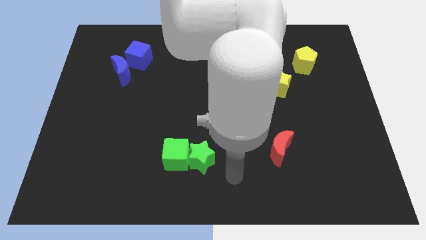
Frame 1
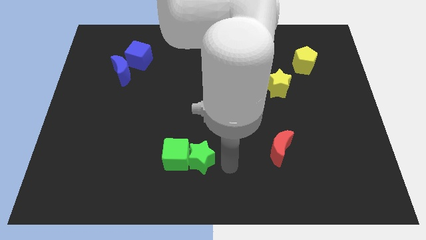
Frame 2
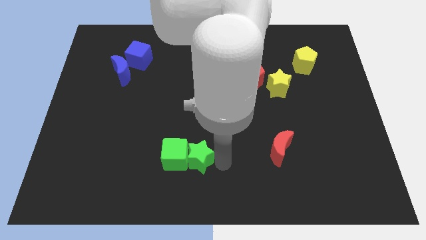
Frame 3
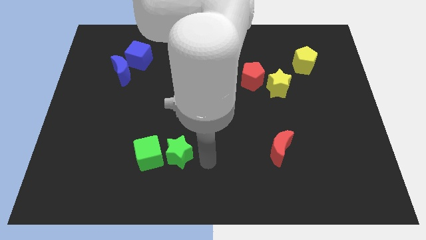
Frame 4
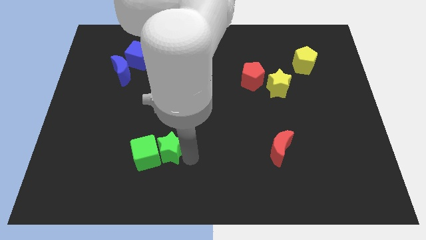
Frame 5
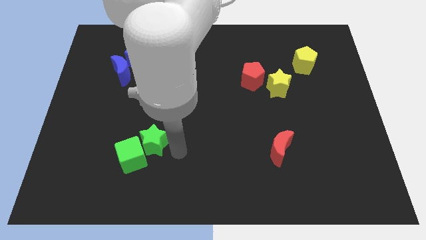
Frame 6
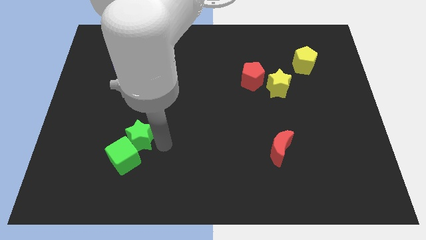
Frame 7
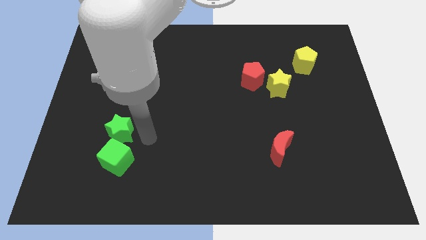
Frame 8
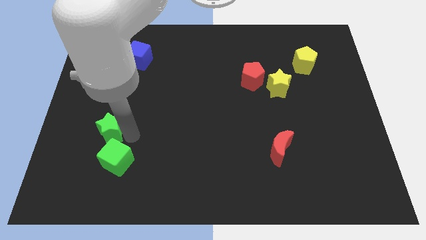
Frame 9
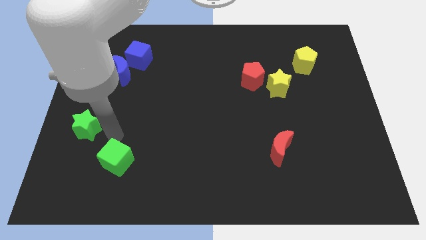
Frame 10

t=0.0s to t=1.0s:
move the green cube away from the green star

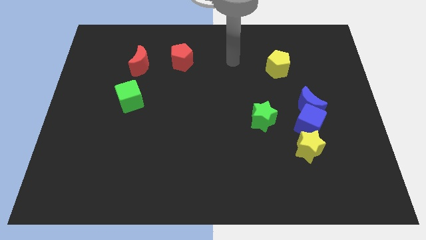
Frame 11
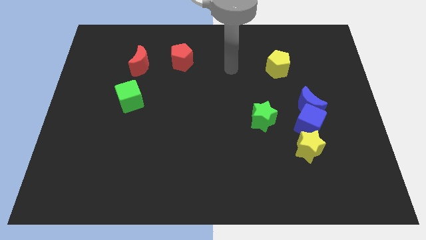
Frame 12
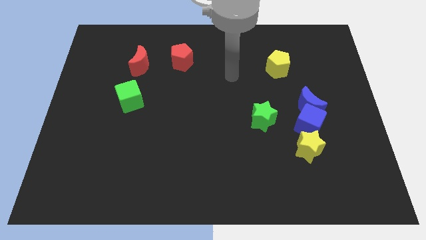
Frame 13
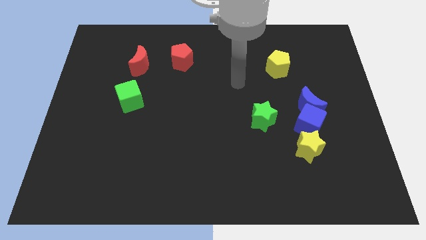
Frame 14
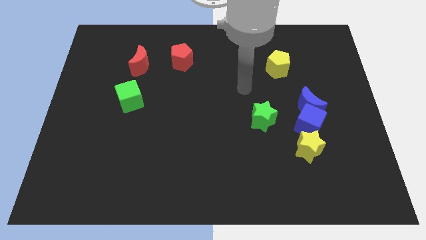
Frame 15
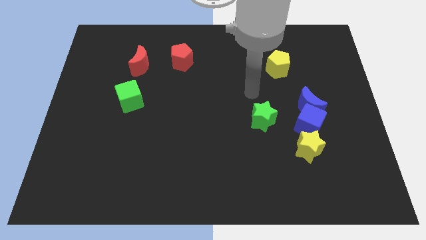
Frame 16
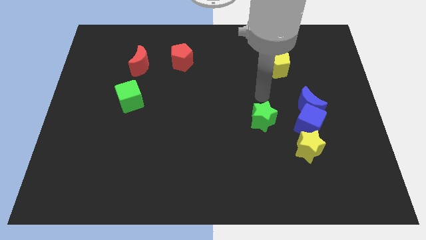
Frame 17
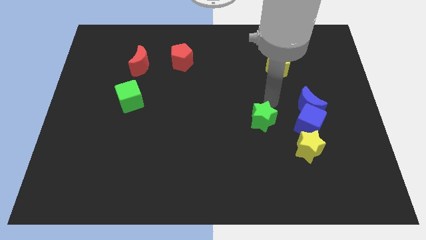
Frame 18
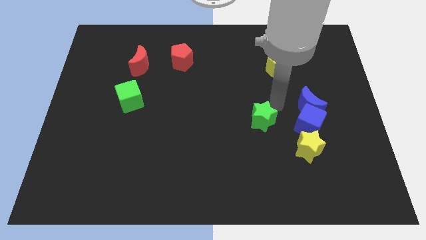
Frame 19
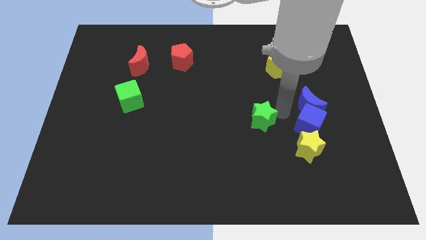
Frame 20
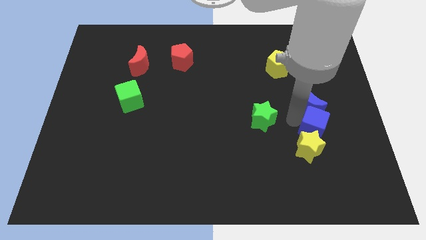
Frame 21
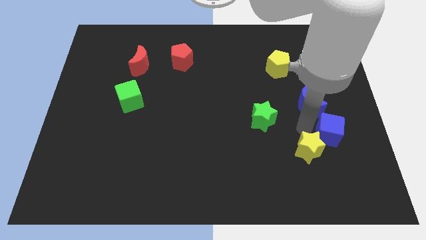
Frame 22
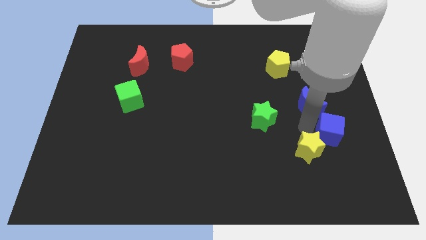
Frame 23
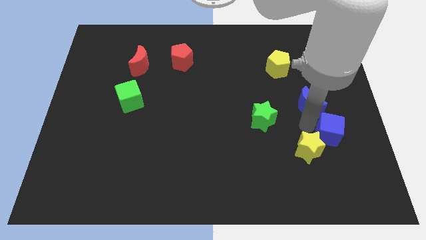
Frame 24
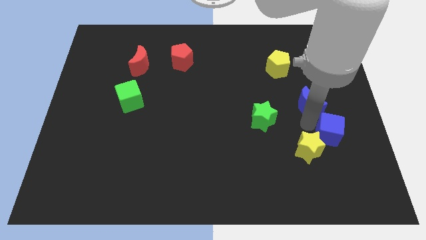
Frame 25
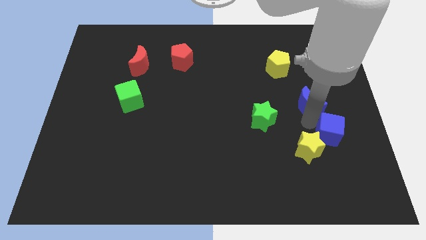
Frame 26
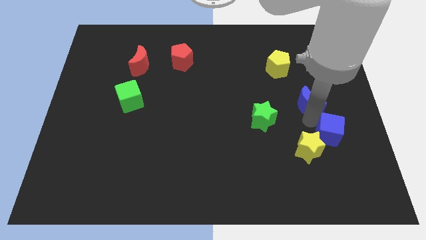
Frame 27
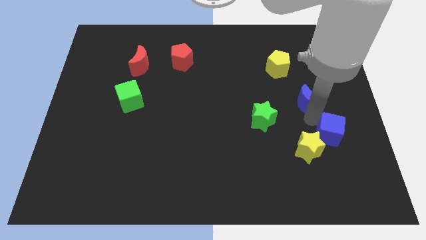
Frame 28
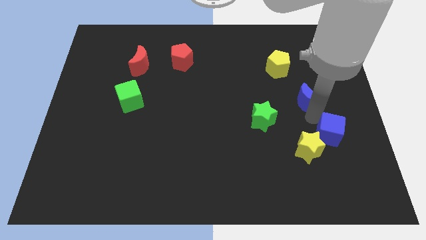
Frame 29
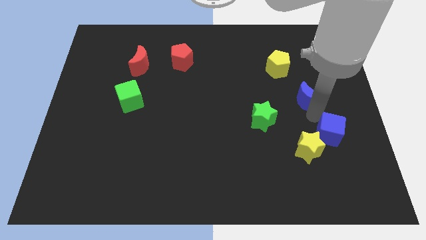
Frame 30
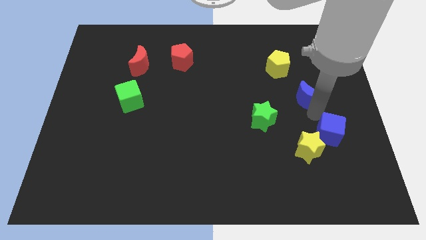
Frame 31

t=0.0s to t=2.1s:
pull the blue moon apart from the blue cube

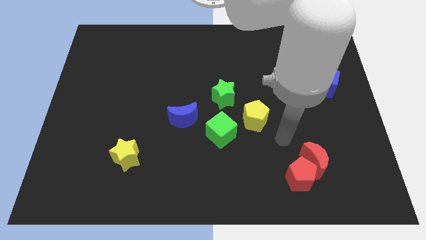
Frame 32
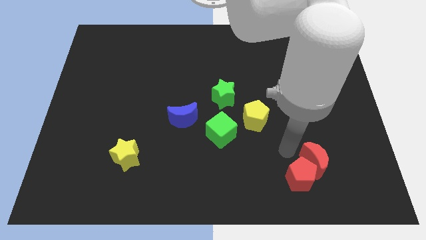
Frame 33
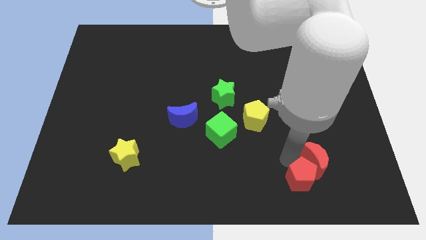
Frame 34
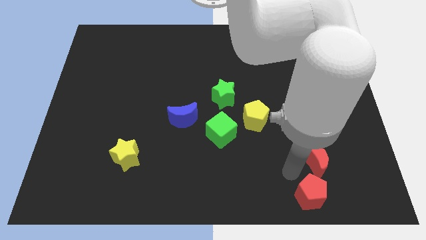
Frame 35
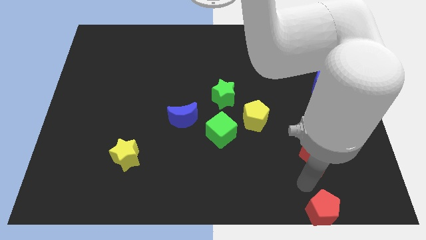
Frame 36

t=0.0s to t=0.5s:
separate the red moon from the red pentagon

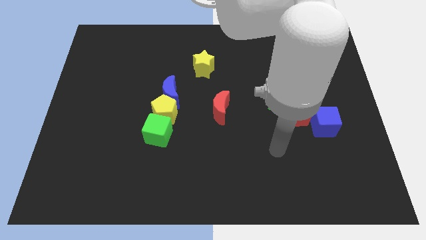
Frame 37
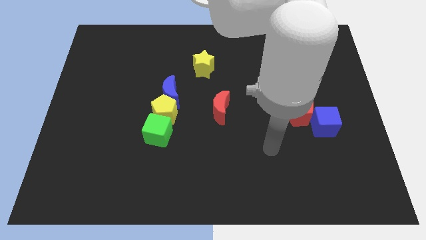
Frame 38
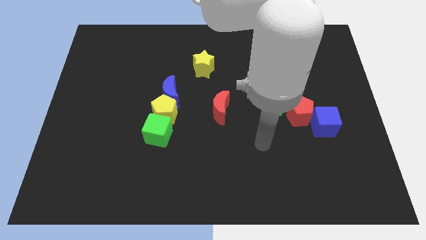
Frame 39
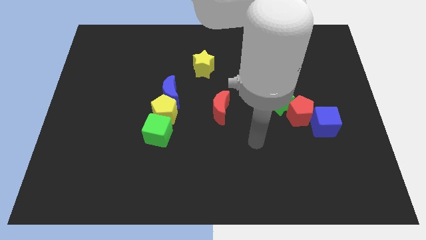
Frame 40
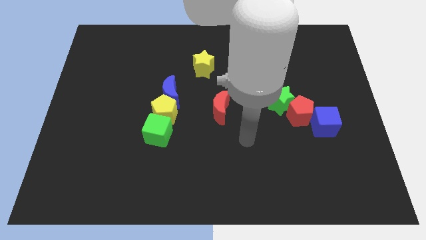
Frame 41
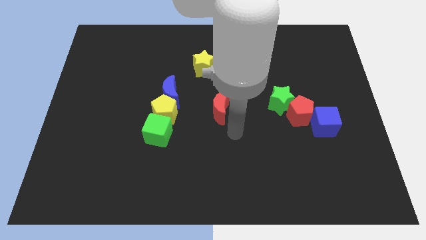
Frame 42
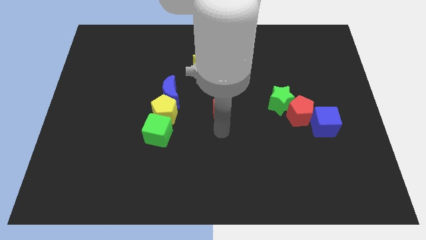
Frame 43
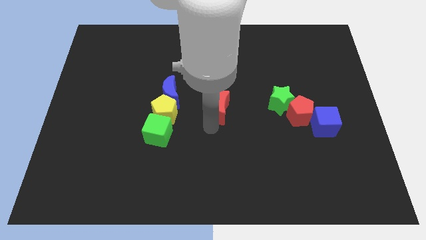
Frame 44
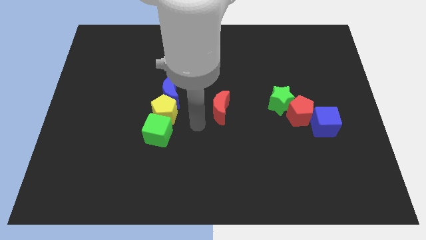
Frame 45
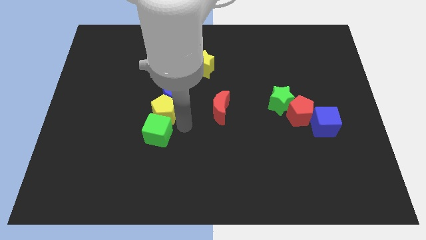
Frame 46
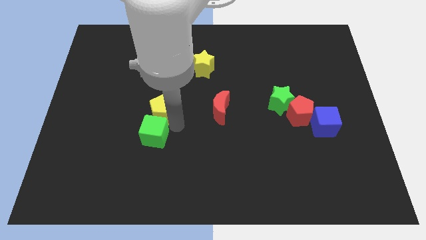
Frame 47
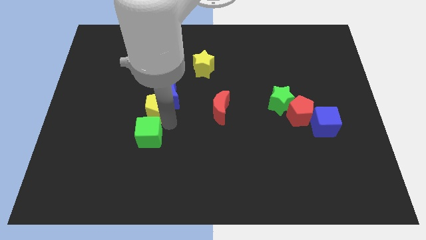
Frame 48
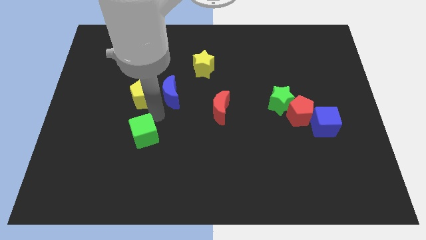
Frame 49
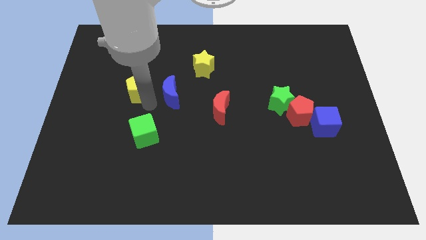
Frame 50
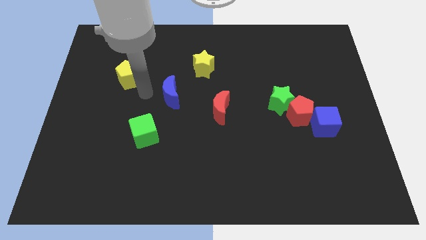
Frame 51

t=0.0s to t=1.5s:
pull the blue moon apart from the yellow pentagon

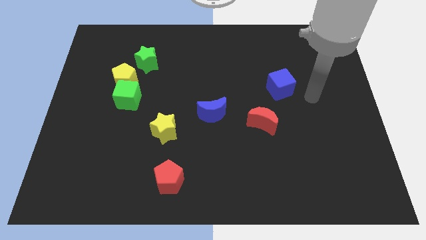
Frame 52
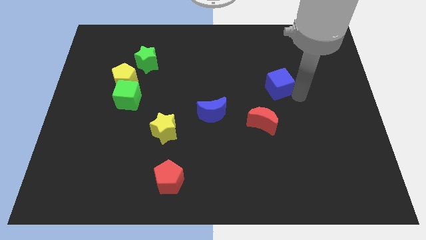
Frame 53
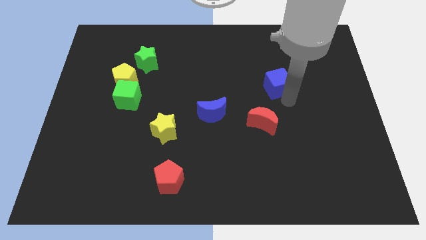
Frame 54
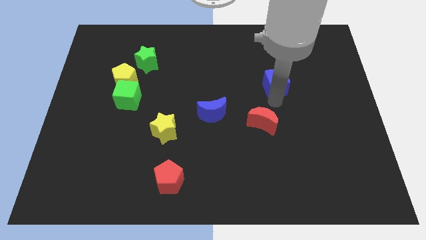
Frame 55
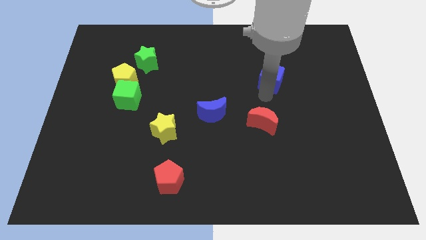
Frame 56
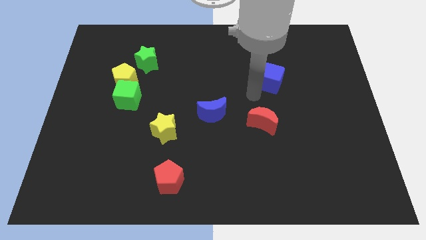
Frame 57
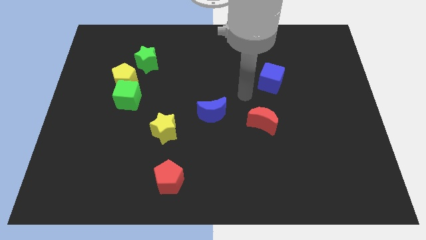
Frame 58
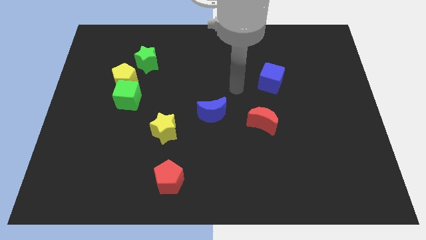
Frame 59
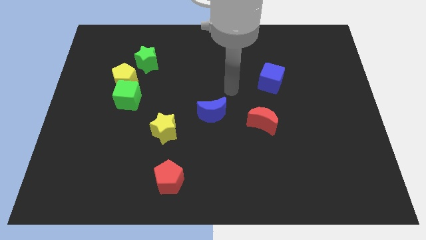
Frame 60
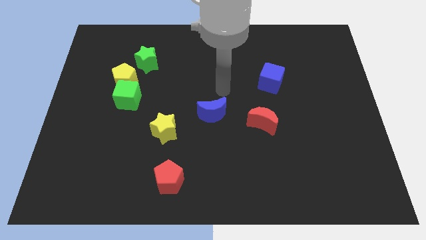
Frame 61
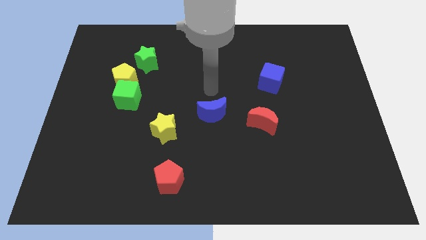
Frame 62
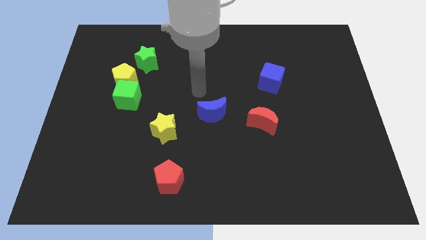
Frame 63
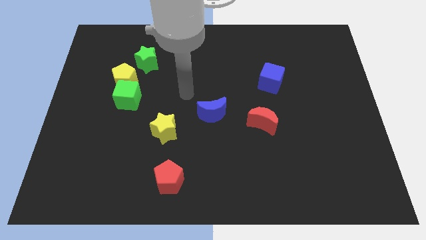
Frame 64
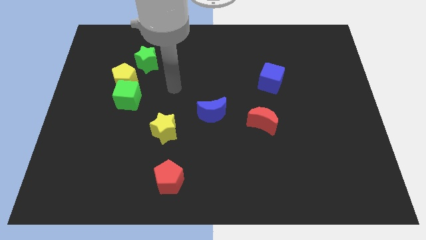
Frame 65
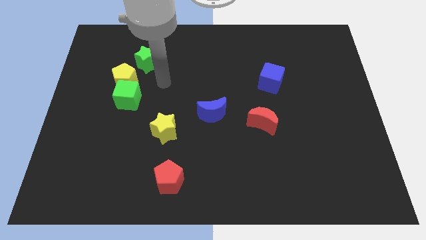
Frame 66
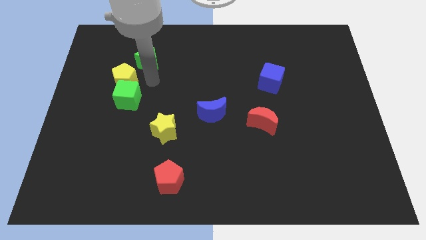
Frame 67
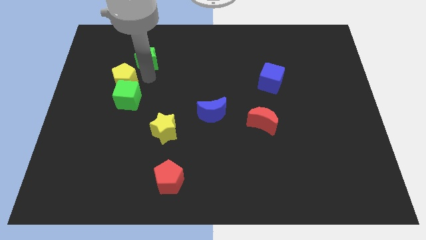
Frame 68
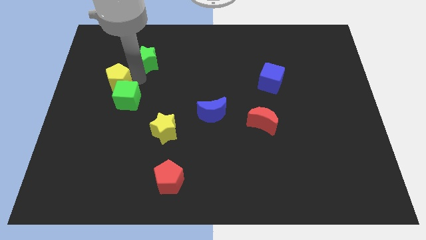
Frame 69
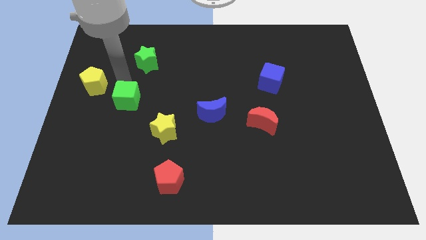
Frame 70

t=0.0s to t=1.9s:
pull the green cube apart from the yellow pentagon

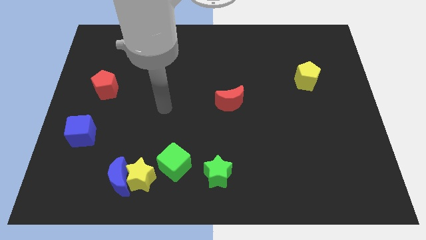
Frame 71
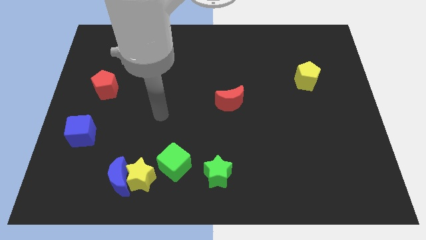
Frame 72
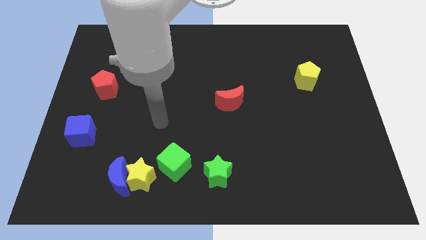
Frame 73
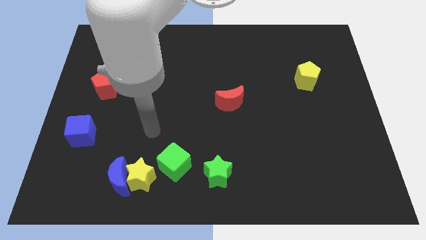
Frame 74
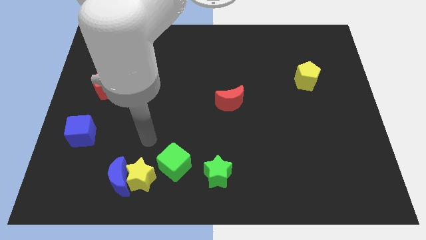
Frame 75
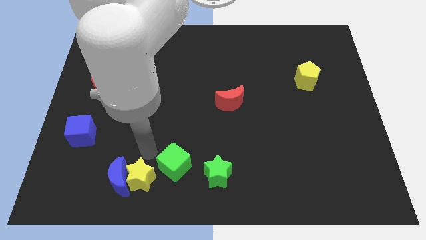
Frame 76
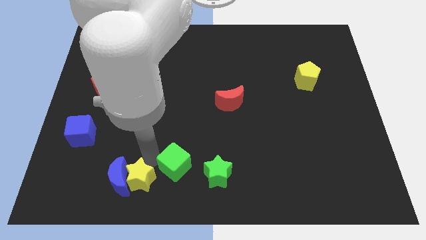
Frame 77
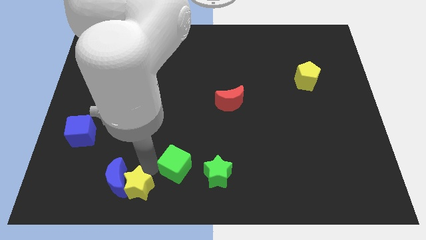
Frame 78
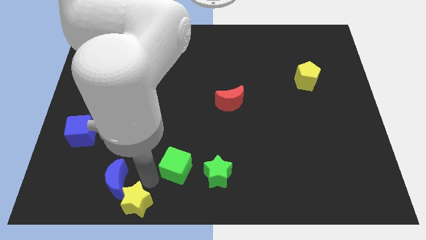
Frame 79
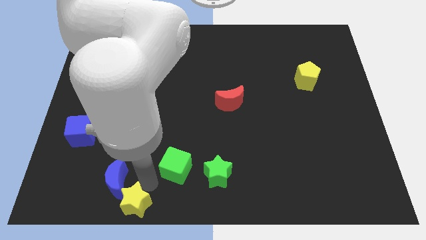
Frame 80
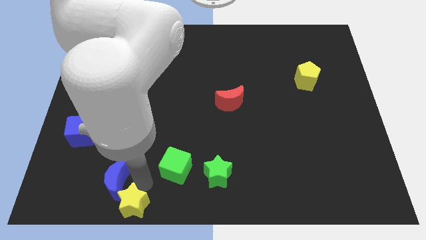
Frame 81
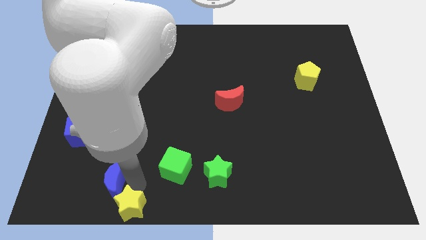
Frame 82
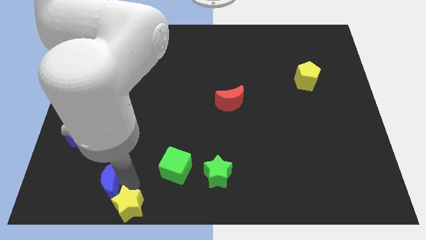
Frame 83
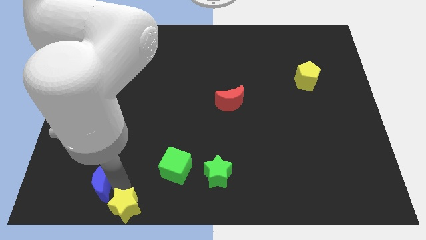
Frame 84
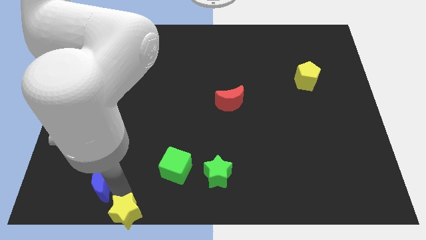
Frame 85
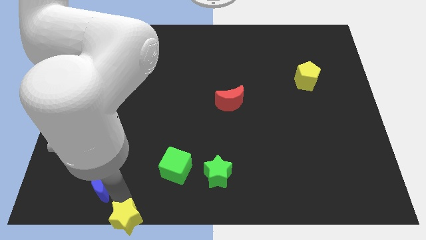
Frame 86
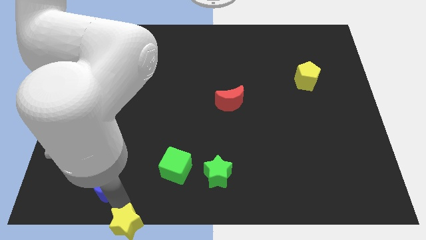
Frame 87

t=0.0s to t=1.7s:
separate the blue moon from the yellow star

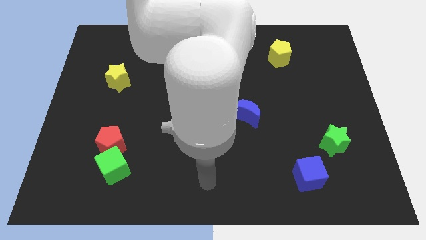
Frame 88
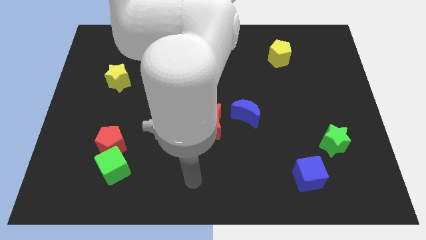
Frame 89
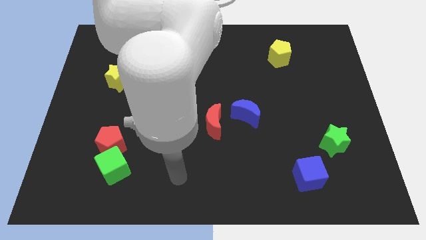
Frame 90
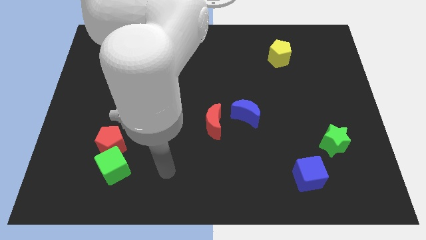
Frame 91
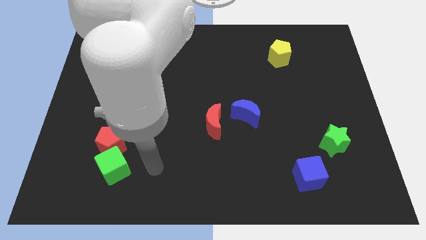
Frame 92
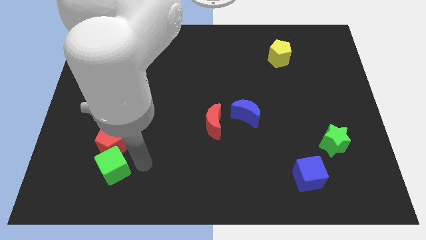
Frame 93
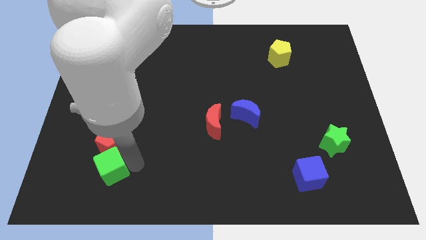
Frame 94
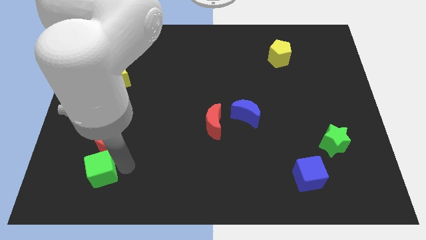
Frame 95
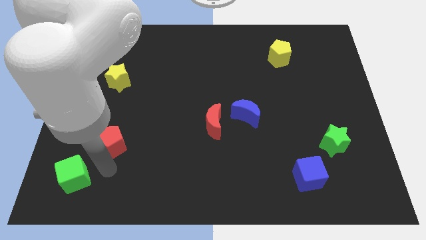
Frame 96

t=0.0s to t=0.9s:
separate the red pentagon from the green cube
